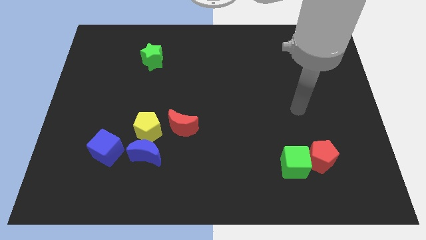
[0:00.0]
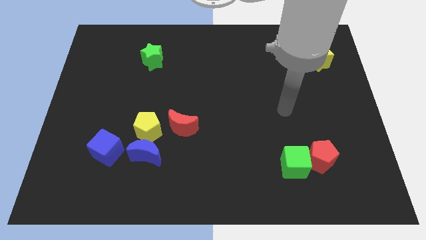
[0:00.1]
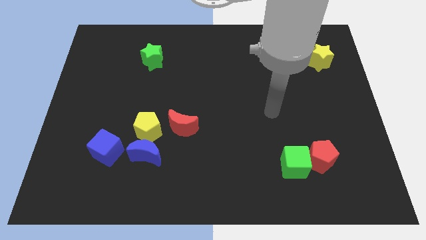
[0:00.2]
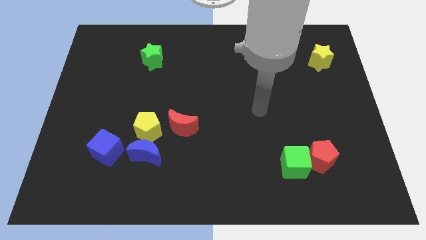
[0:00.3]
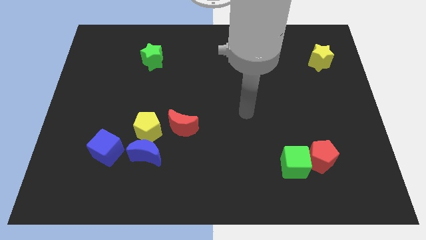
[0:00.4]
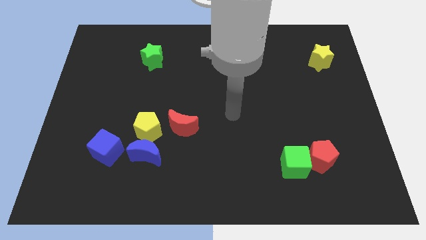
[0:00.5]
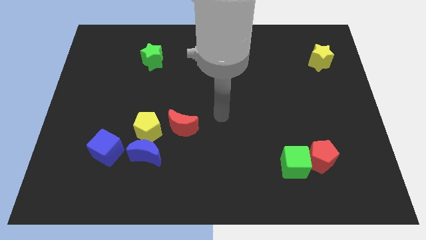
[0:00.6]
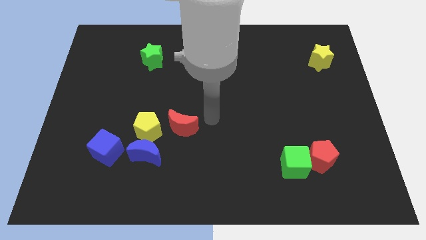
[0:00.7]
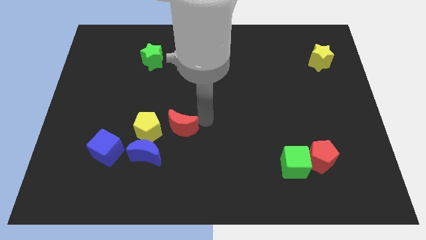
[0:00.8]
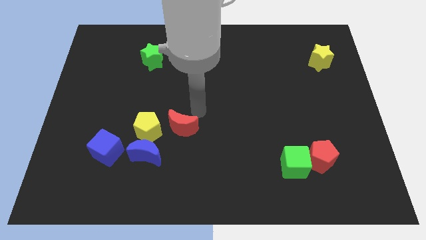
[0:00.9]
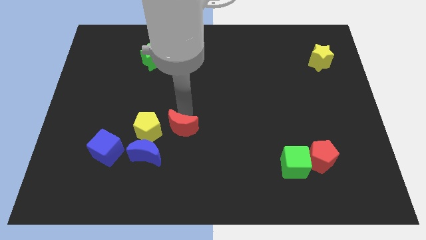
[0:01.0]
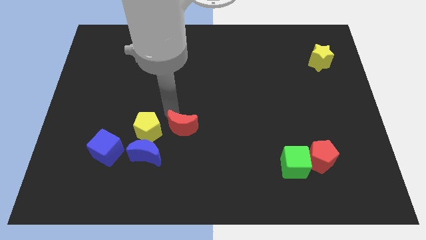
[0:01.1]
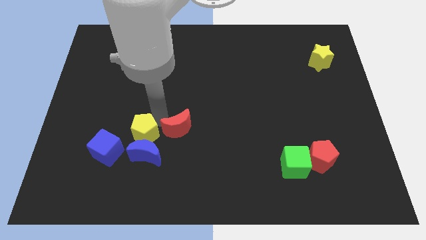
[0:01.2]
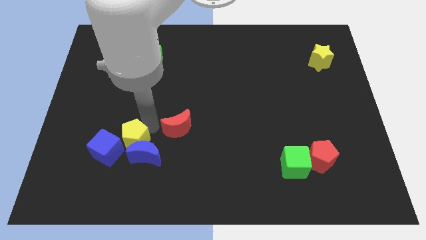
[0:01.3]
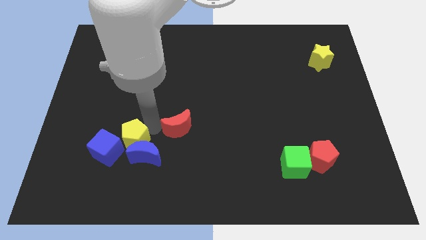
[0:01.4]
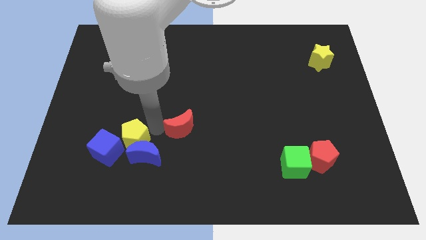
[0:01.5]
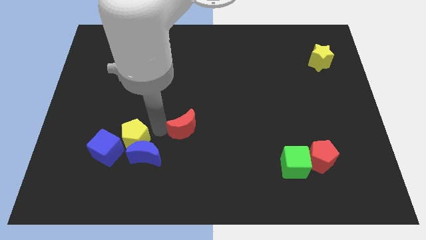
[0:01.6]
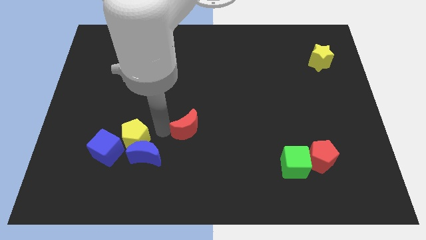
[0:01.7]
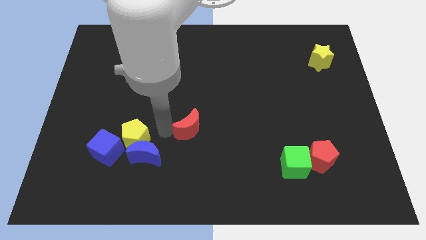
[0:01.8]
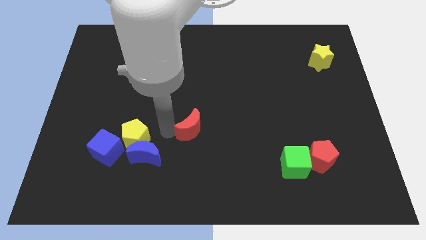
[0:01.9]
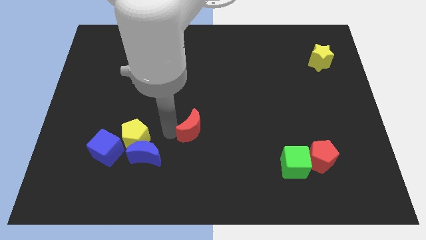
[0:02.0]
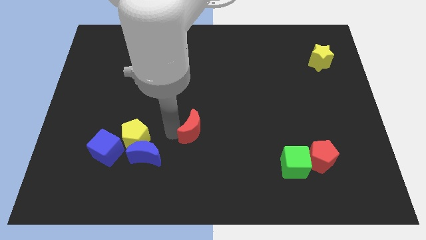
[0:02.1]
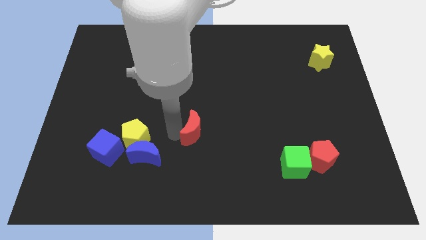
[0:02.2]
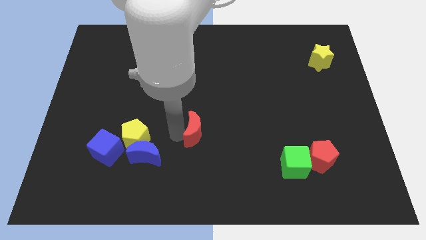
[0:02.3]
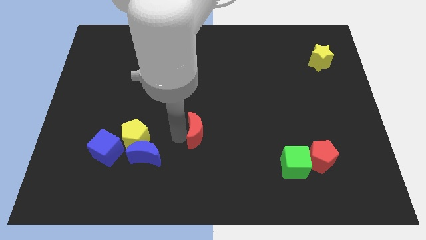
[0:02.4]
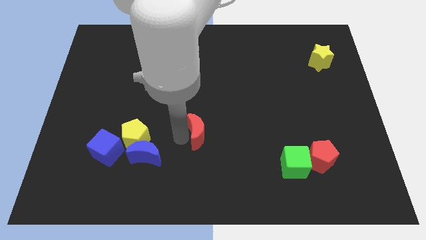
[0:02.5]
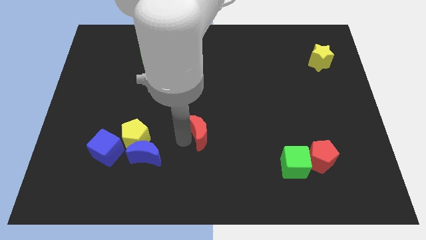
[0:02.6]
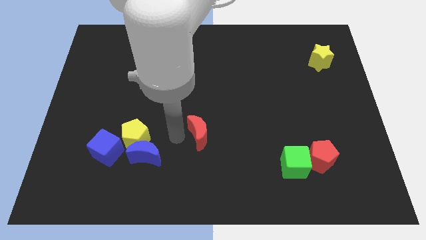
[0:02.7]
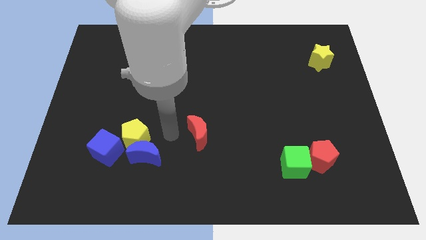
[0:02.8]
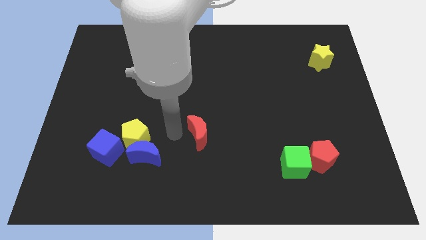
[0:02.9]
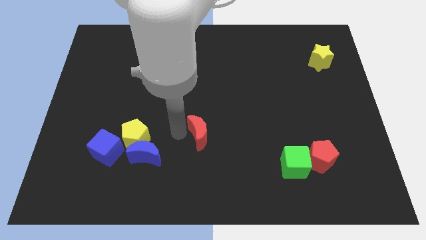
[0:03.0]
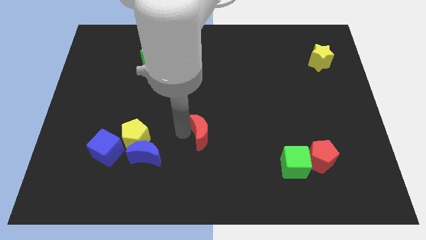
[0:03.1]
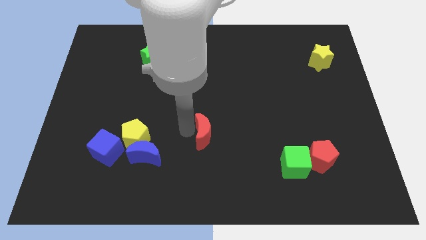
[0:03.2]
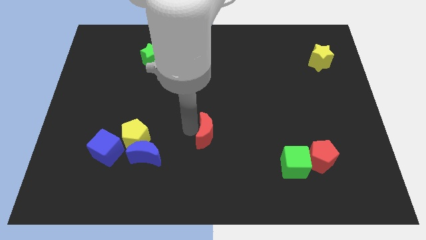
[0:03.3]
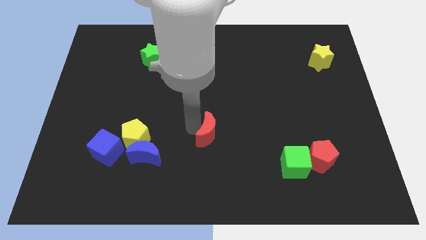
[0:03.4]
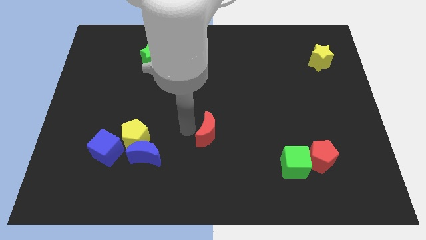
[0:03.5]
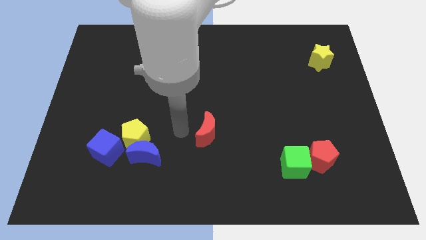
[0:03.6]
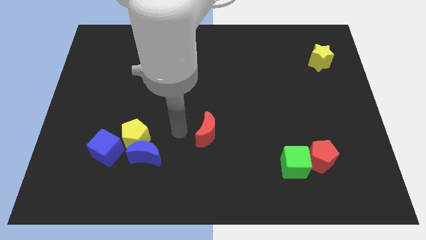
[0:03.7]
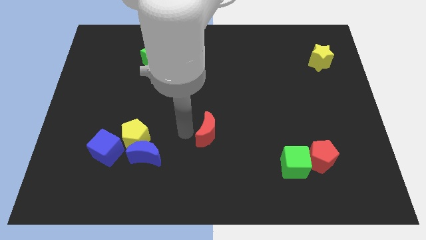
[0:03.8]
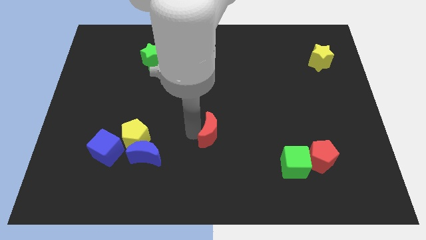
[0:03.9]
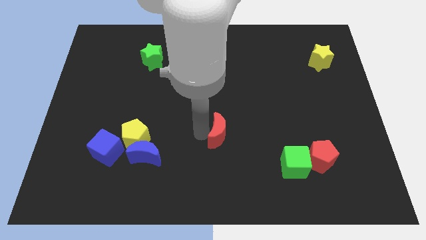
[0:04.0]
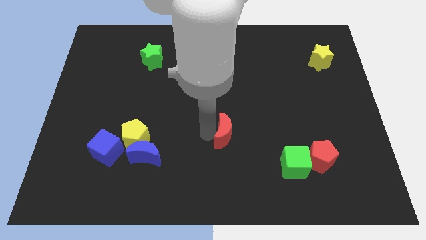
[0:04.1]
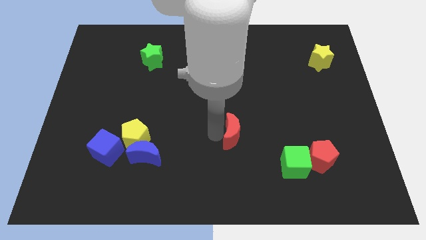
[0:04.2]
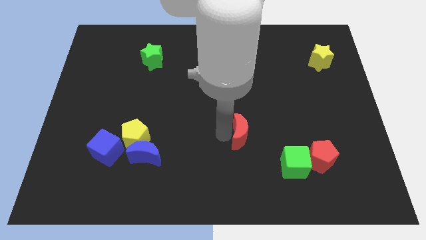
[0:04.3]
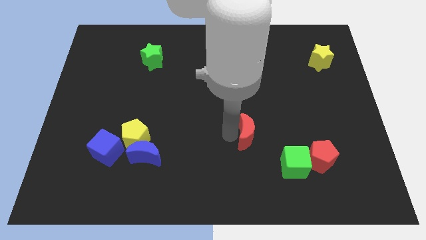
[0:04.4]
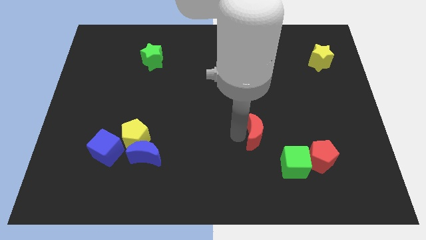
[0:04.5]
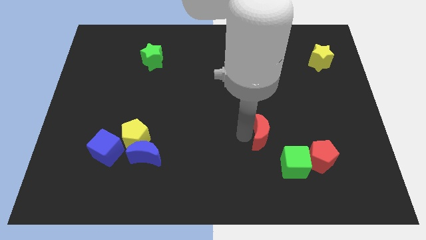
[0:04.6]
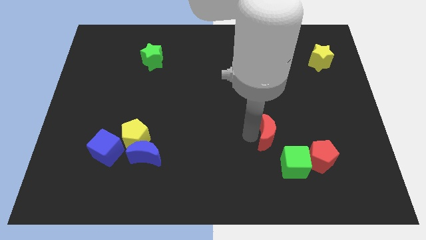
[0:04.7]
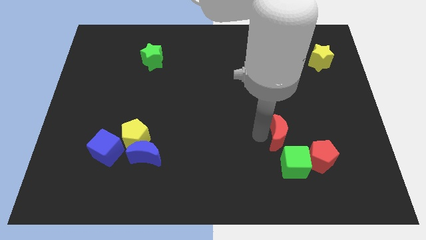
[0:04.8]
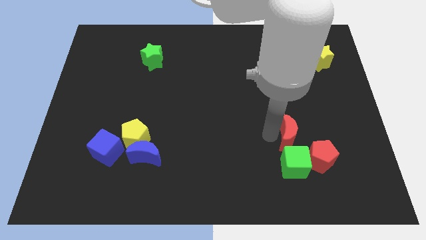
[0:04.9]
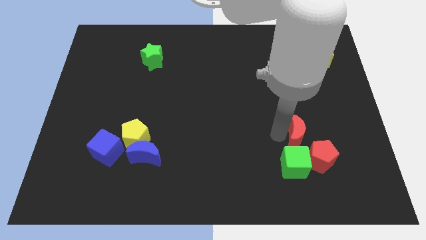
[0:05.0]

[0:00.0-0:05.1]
slide the red moon to the top right side of the green cube

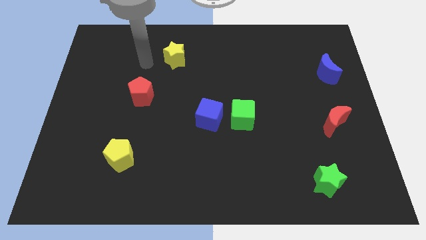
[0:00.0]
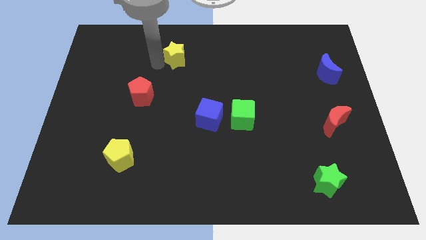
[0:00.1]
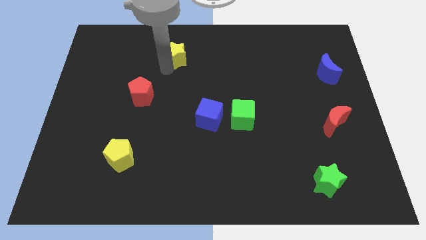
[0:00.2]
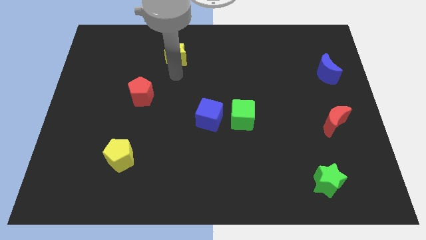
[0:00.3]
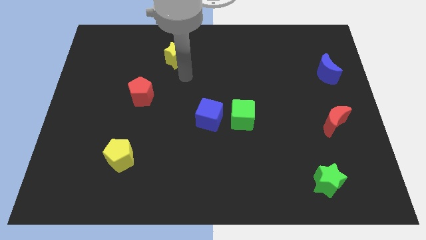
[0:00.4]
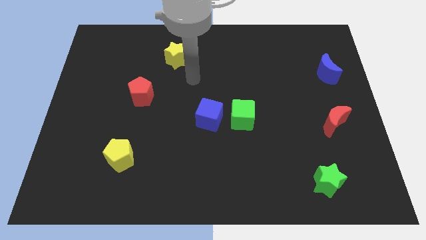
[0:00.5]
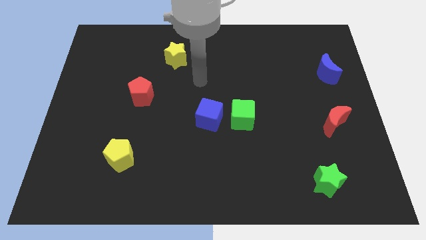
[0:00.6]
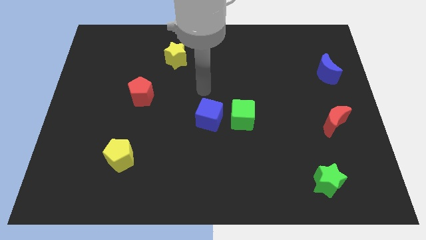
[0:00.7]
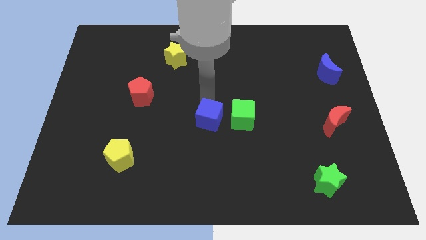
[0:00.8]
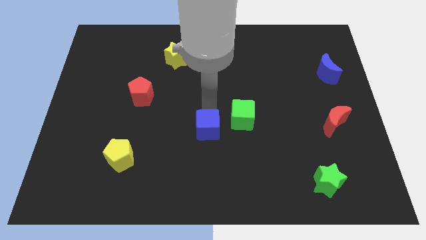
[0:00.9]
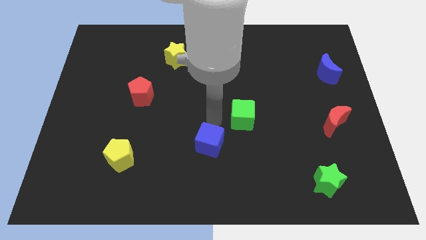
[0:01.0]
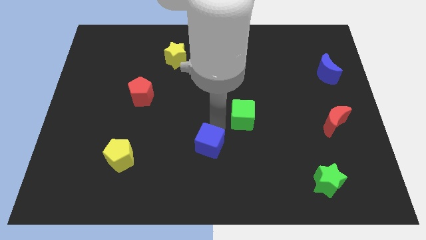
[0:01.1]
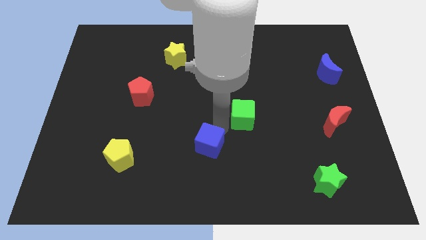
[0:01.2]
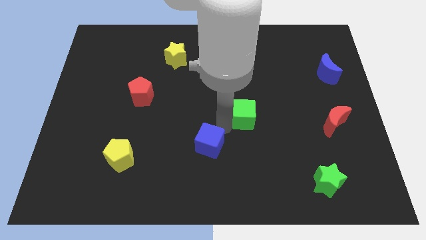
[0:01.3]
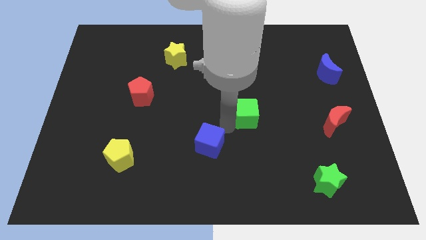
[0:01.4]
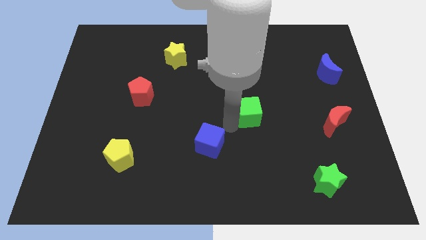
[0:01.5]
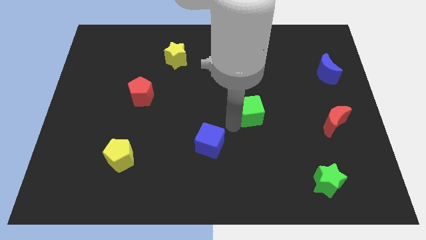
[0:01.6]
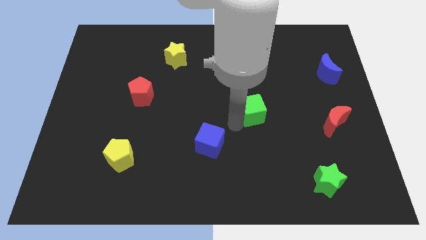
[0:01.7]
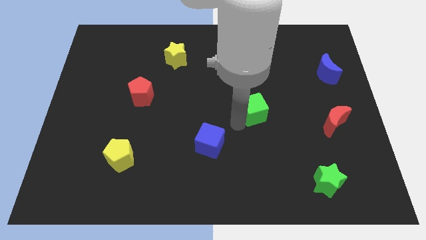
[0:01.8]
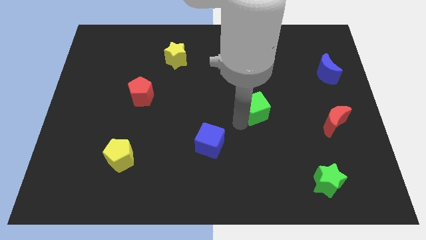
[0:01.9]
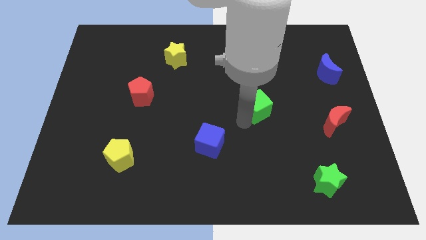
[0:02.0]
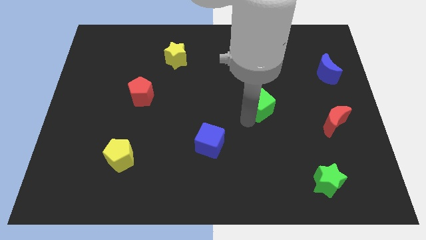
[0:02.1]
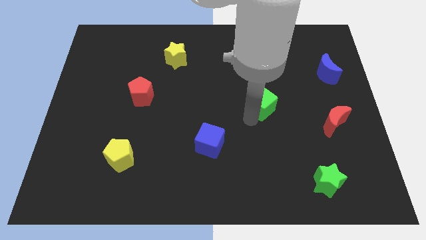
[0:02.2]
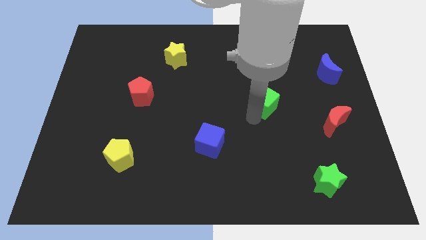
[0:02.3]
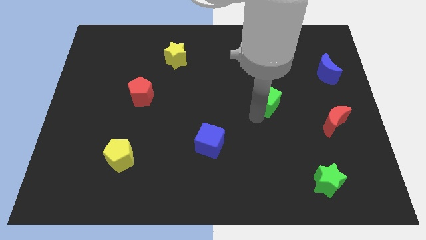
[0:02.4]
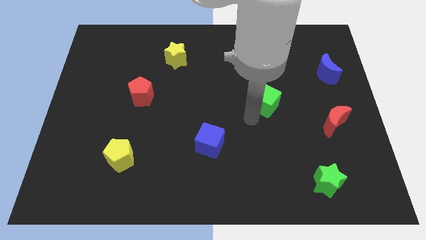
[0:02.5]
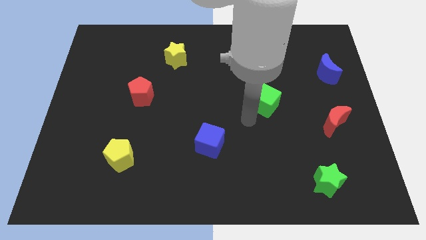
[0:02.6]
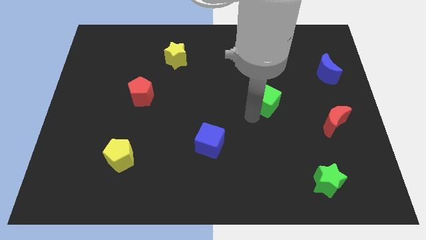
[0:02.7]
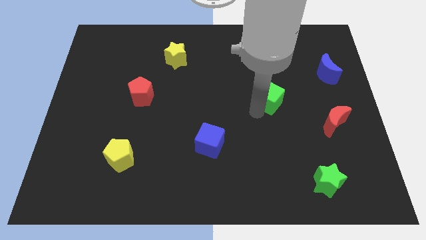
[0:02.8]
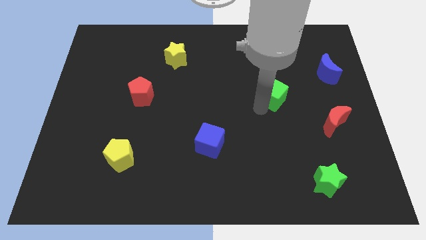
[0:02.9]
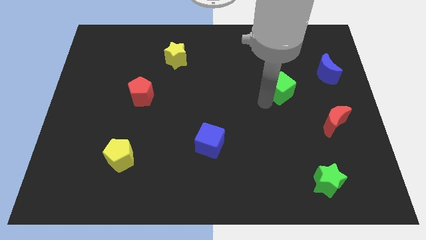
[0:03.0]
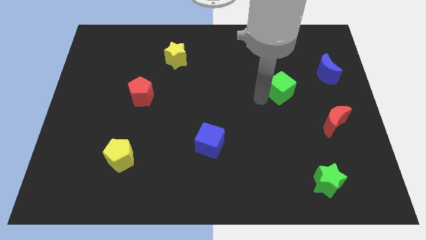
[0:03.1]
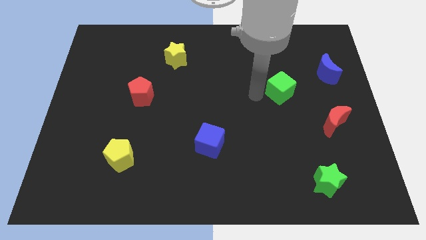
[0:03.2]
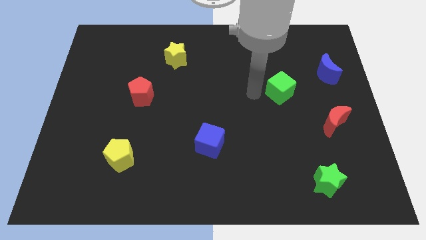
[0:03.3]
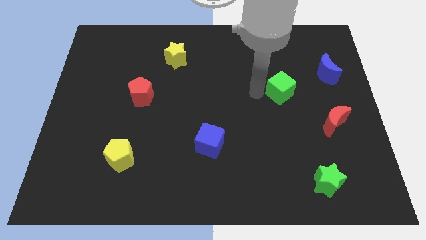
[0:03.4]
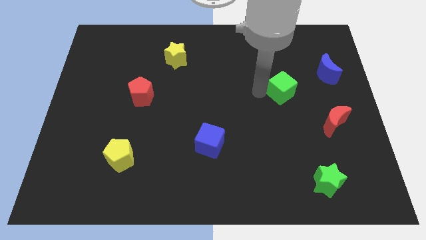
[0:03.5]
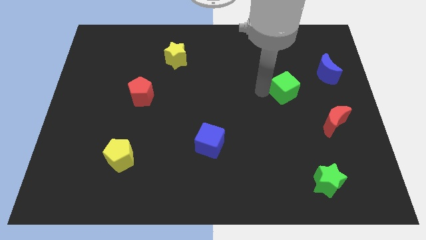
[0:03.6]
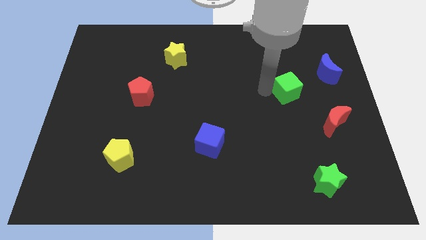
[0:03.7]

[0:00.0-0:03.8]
push the green cube to the bottom left side of the blue moon
